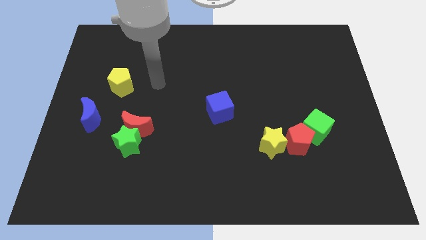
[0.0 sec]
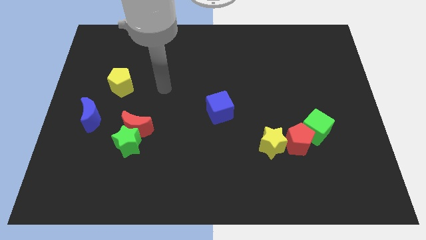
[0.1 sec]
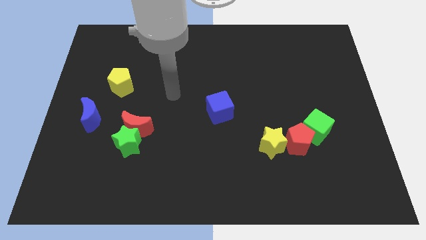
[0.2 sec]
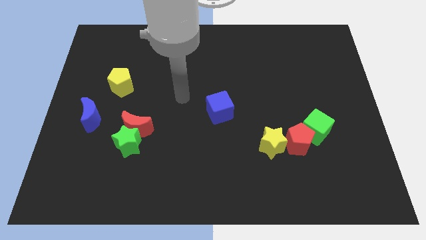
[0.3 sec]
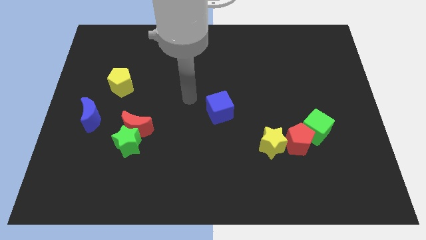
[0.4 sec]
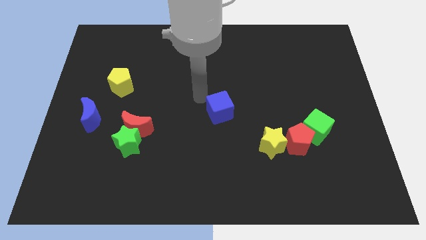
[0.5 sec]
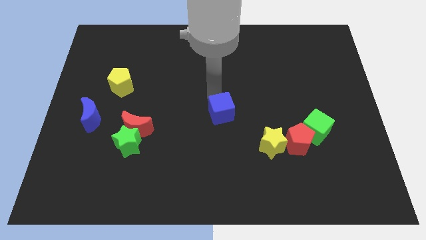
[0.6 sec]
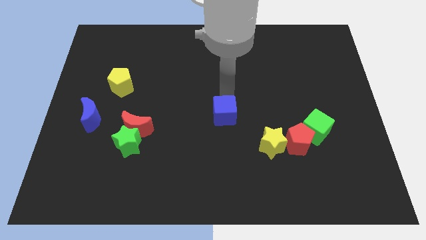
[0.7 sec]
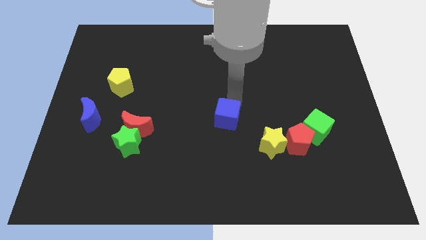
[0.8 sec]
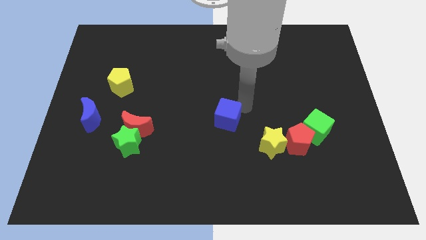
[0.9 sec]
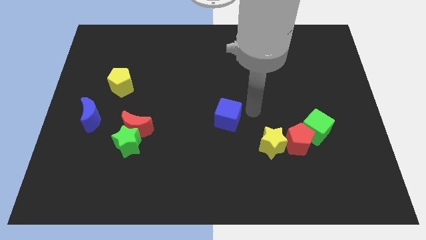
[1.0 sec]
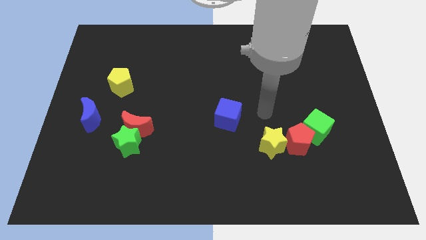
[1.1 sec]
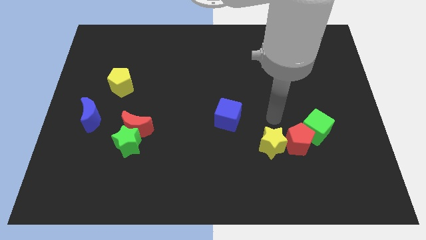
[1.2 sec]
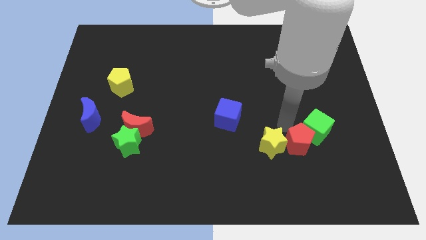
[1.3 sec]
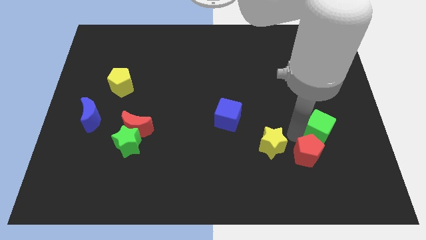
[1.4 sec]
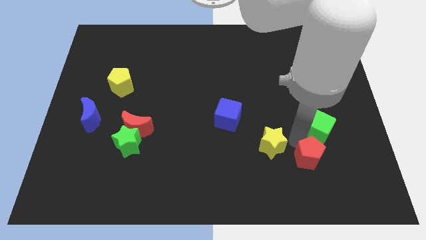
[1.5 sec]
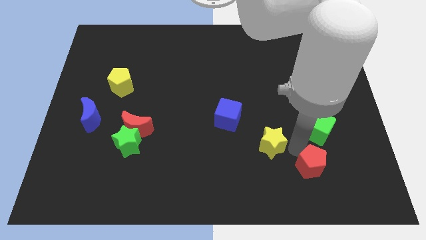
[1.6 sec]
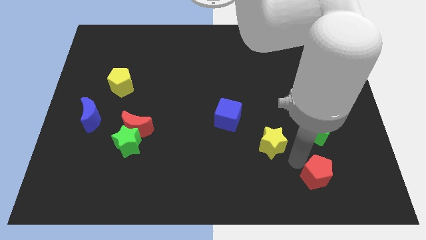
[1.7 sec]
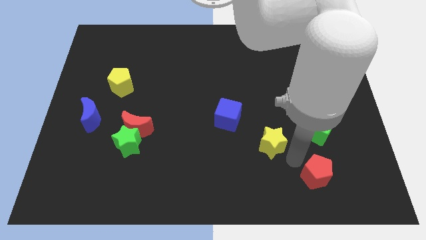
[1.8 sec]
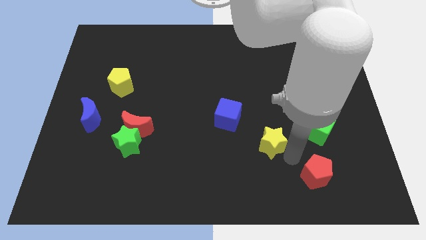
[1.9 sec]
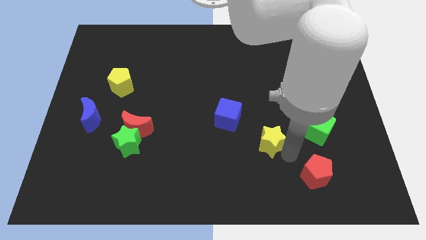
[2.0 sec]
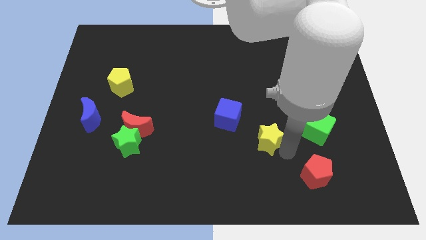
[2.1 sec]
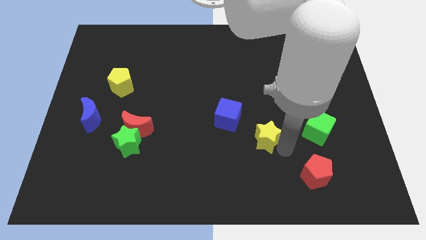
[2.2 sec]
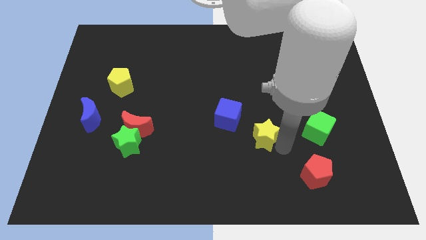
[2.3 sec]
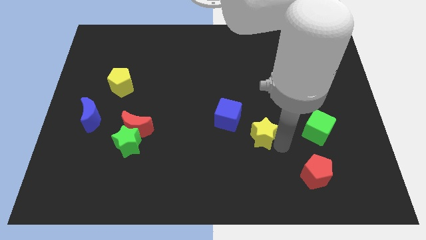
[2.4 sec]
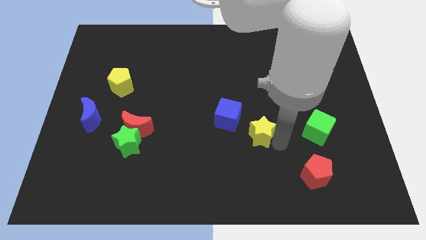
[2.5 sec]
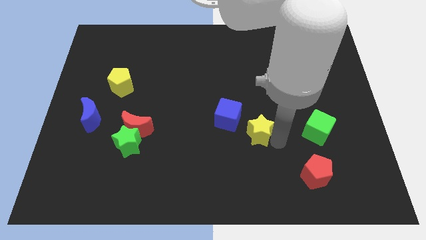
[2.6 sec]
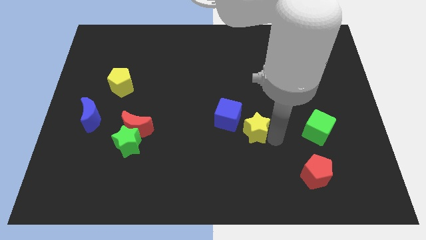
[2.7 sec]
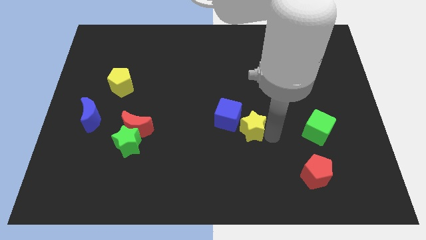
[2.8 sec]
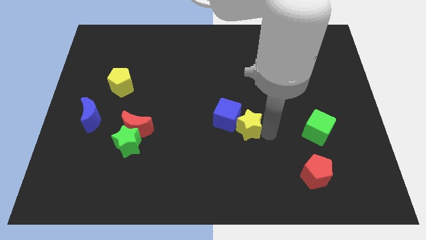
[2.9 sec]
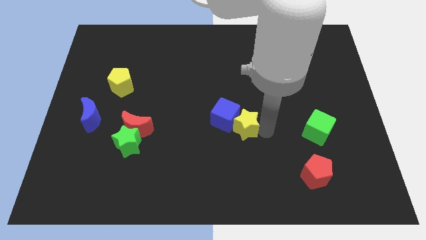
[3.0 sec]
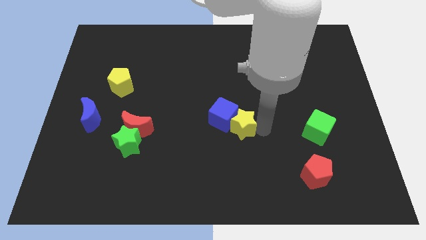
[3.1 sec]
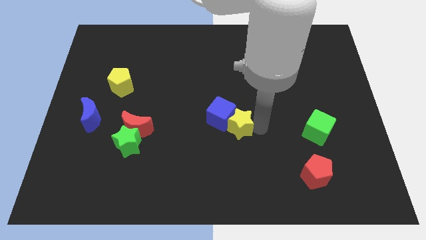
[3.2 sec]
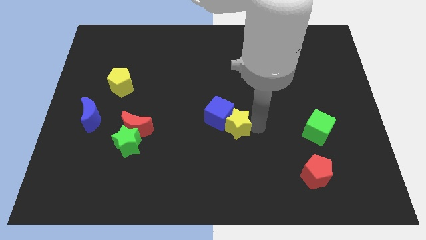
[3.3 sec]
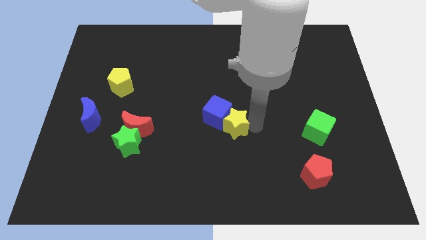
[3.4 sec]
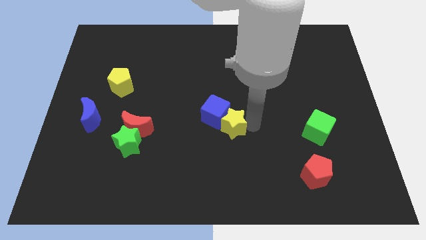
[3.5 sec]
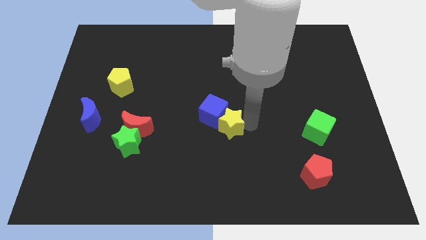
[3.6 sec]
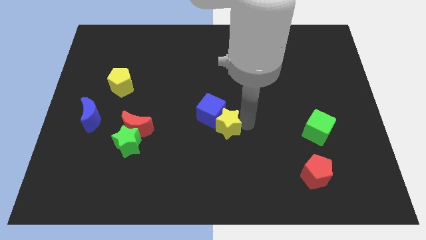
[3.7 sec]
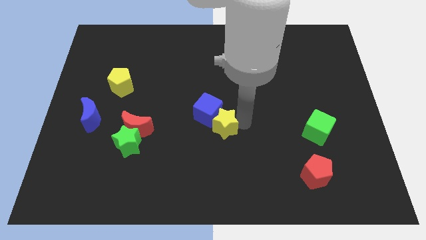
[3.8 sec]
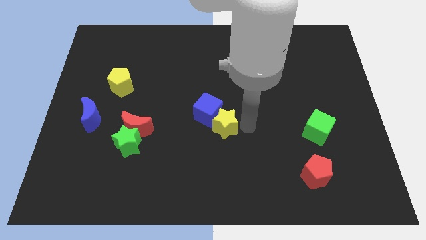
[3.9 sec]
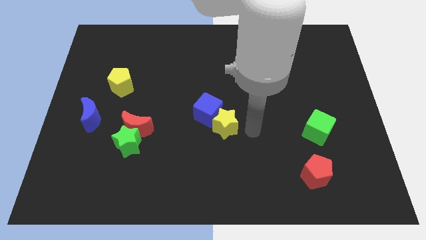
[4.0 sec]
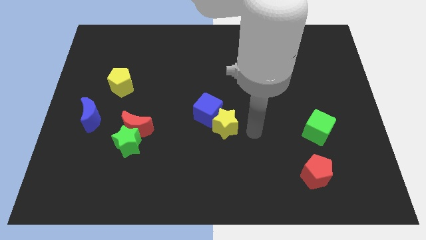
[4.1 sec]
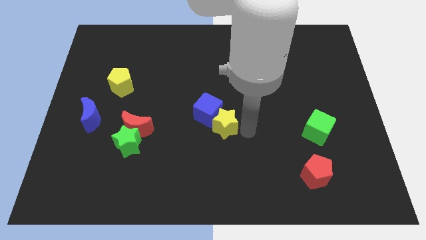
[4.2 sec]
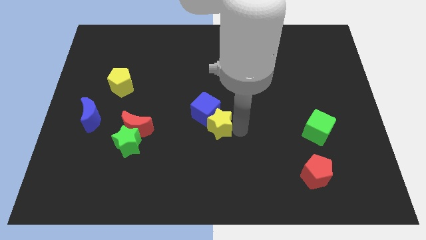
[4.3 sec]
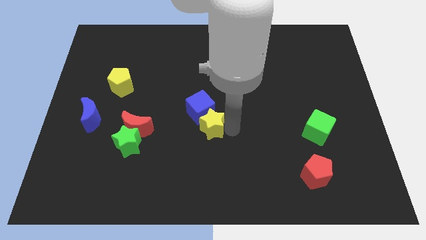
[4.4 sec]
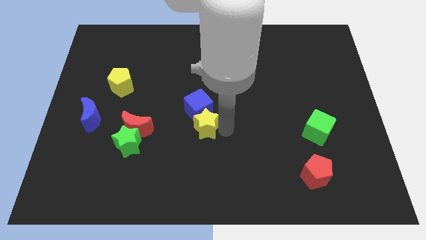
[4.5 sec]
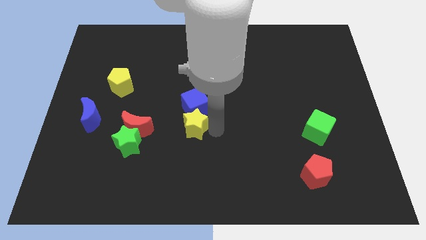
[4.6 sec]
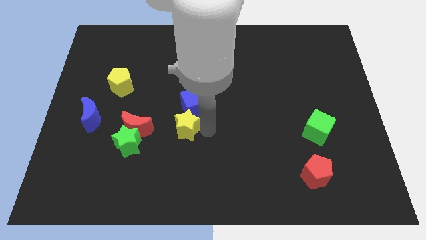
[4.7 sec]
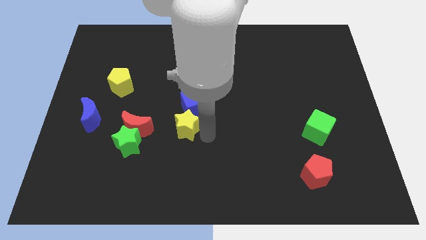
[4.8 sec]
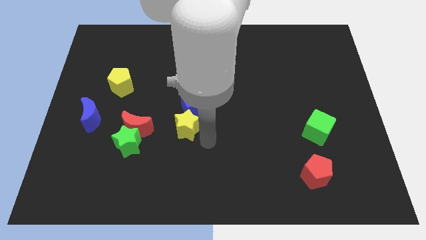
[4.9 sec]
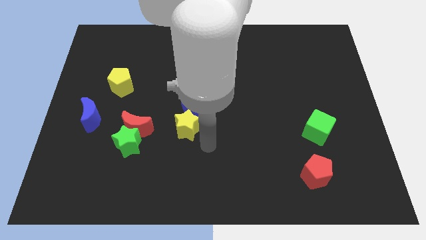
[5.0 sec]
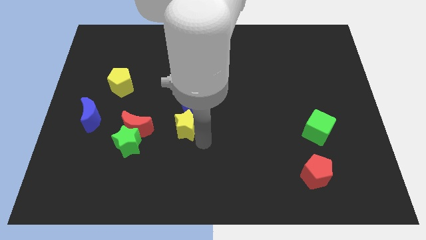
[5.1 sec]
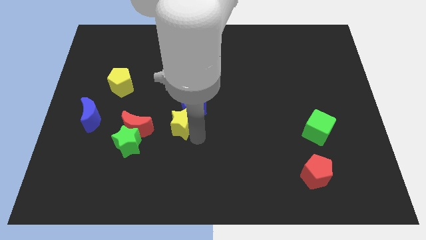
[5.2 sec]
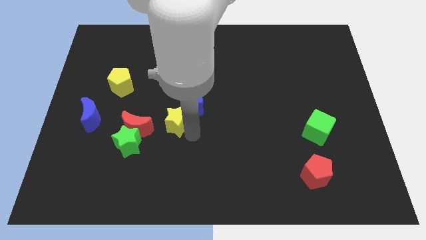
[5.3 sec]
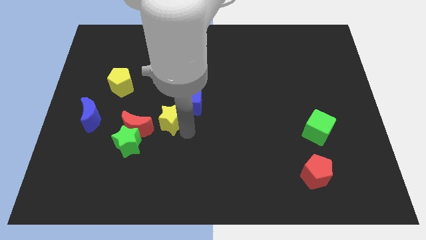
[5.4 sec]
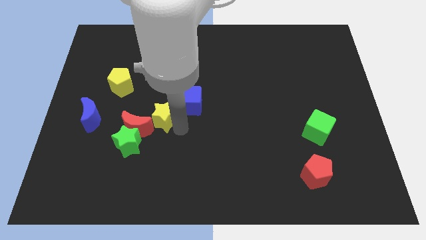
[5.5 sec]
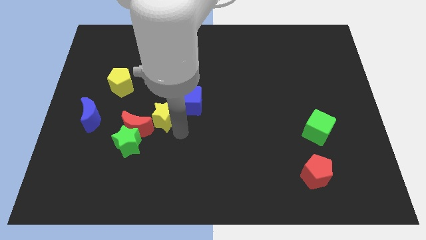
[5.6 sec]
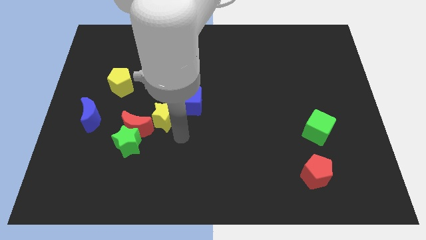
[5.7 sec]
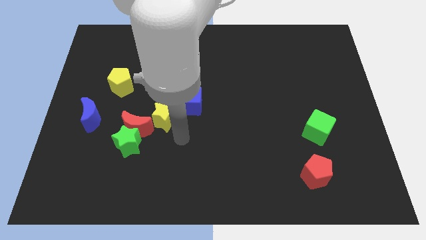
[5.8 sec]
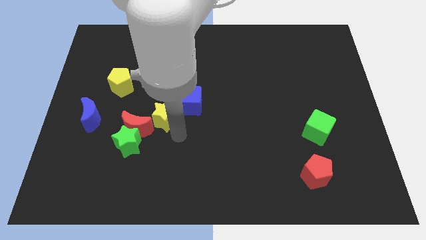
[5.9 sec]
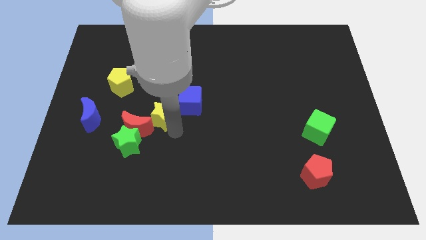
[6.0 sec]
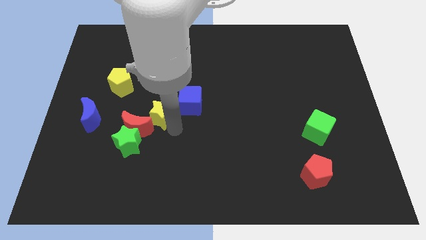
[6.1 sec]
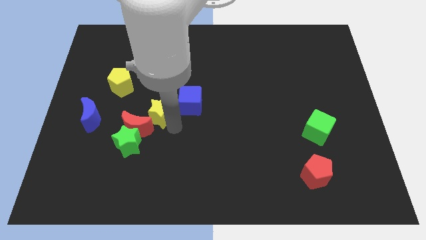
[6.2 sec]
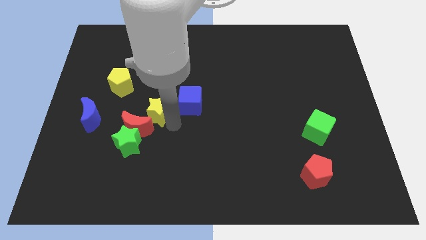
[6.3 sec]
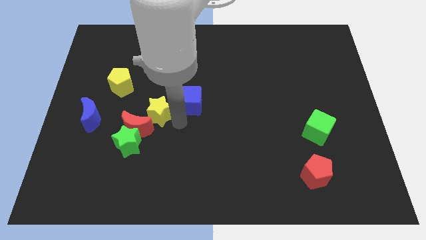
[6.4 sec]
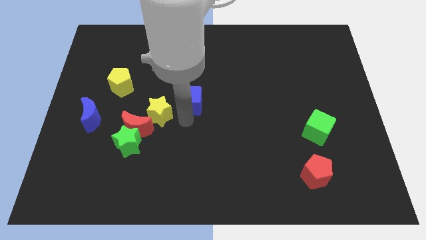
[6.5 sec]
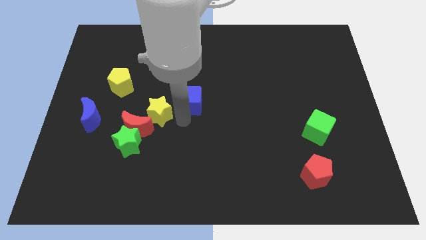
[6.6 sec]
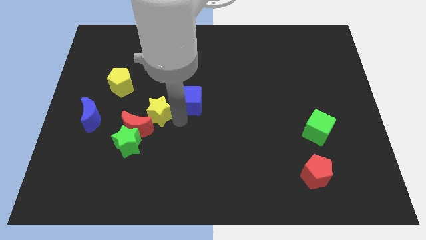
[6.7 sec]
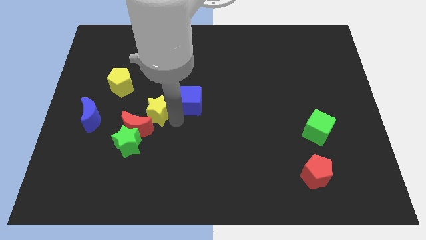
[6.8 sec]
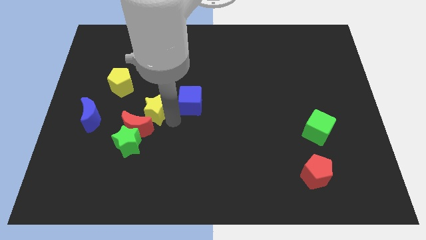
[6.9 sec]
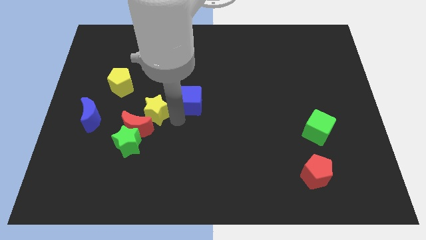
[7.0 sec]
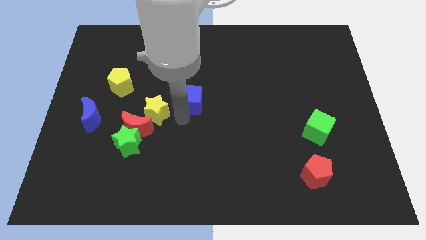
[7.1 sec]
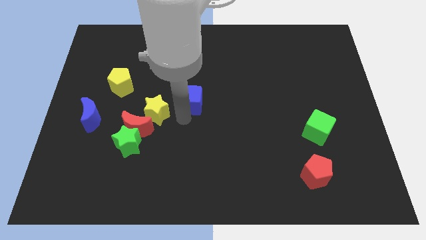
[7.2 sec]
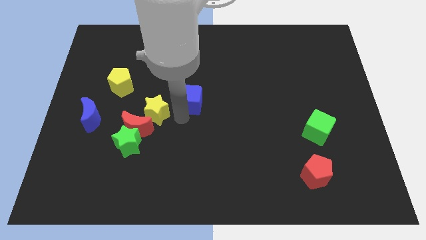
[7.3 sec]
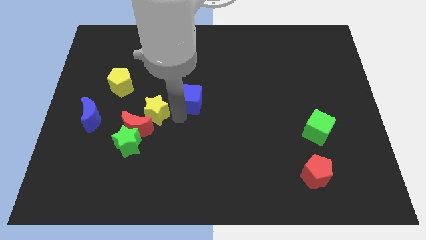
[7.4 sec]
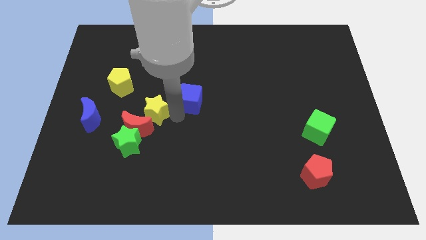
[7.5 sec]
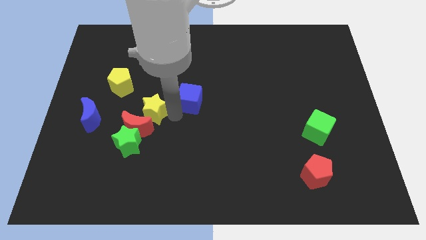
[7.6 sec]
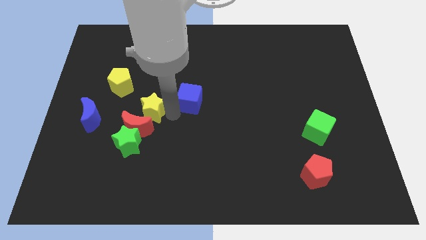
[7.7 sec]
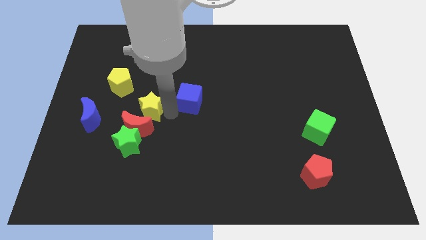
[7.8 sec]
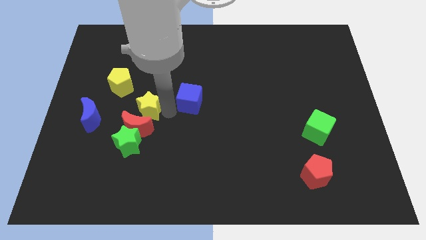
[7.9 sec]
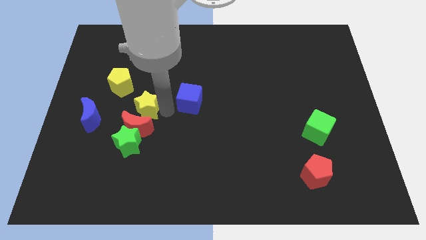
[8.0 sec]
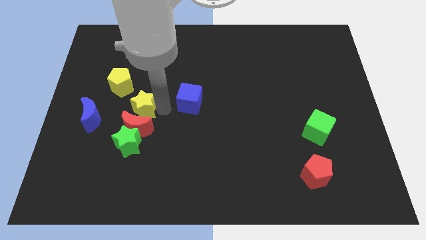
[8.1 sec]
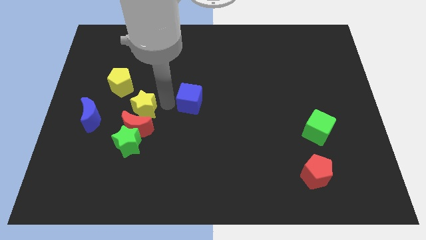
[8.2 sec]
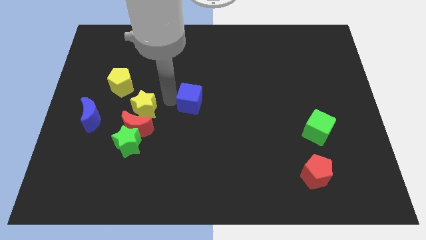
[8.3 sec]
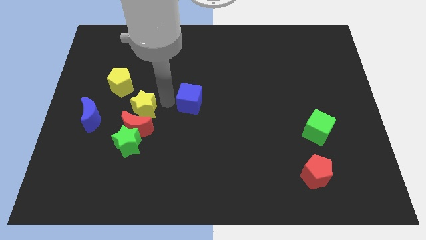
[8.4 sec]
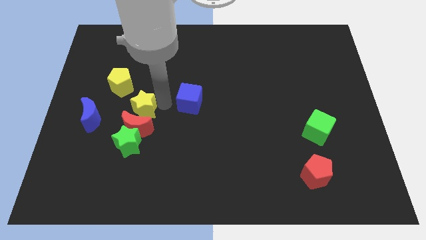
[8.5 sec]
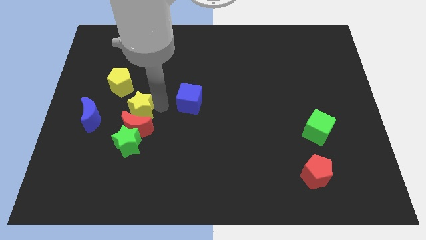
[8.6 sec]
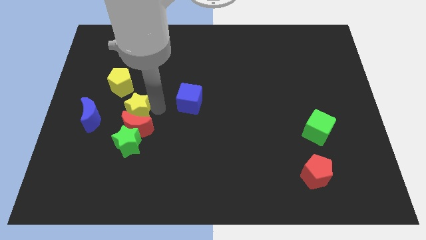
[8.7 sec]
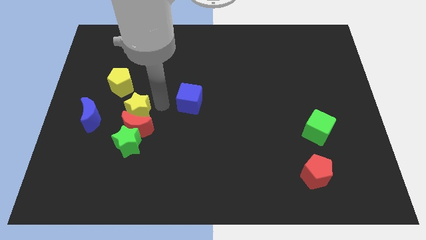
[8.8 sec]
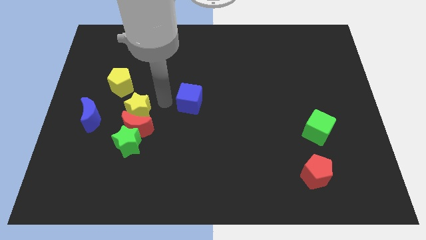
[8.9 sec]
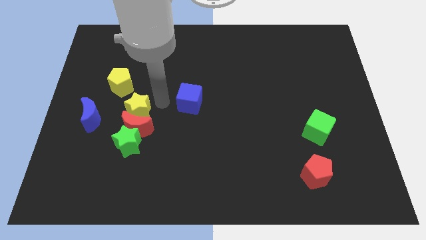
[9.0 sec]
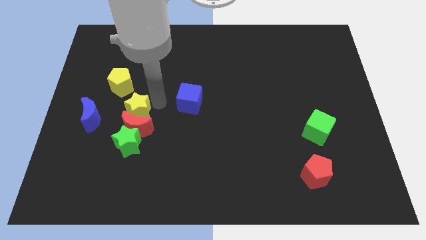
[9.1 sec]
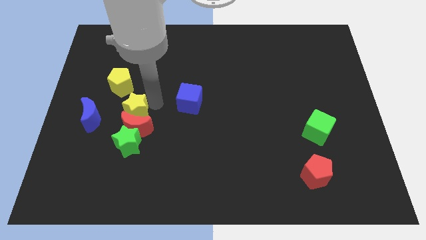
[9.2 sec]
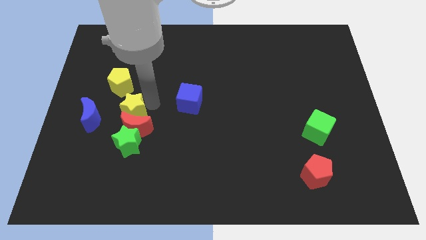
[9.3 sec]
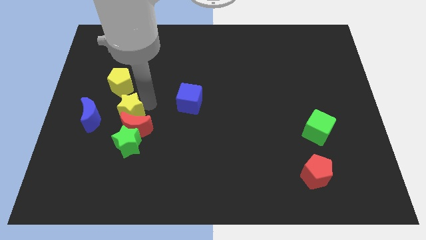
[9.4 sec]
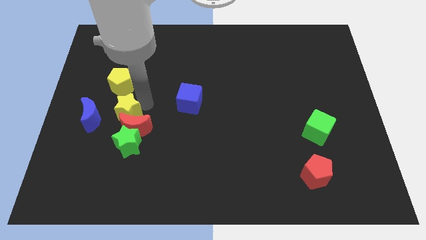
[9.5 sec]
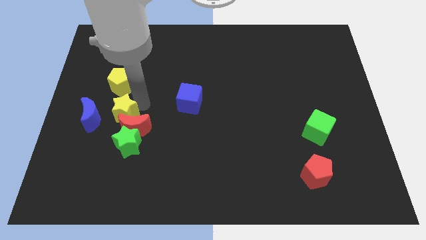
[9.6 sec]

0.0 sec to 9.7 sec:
push the yellow star diagonally up and to the left of the green star
